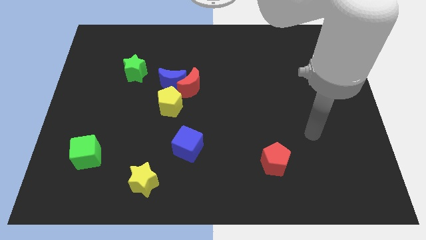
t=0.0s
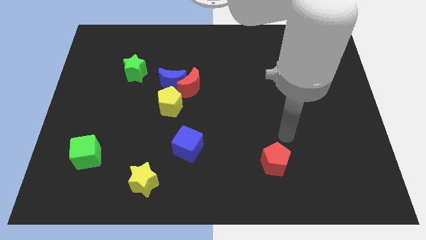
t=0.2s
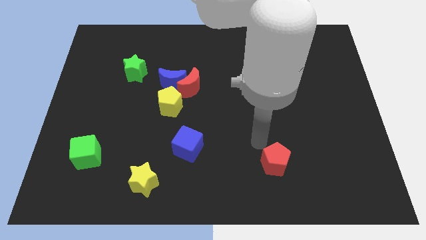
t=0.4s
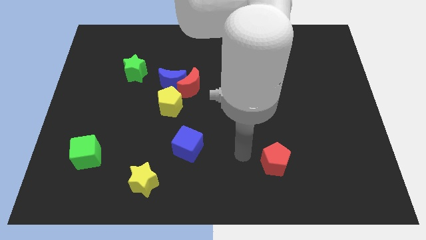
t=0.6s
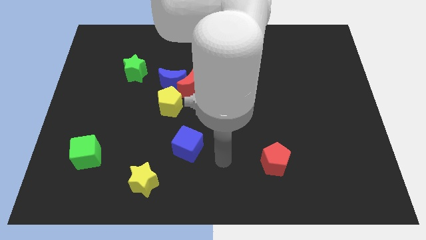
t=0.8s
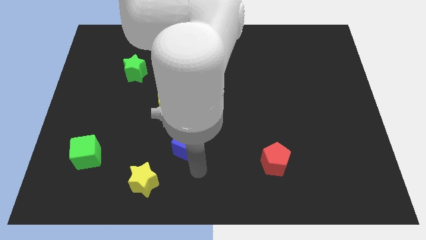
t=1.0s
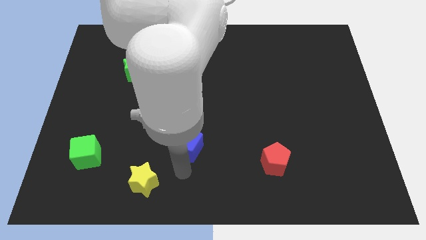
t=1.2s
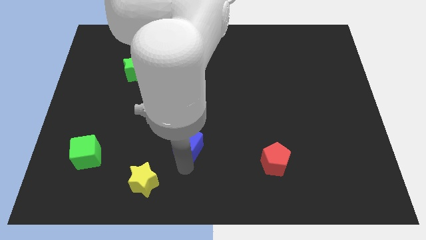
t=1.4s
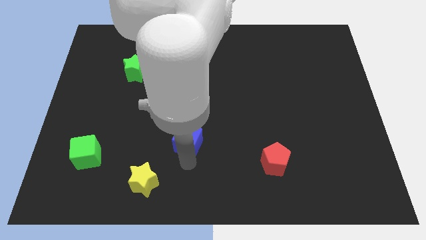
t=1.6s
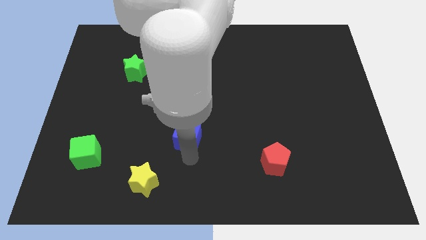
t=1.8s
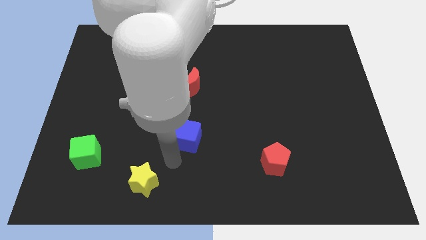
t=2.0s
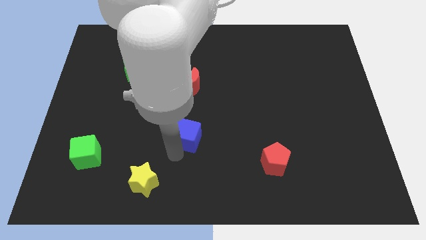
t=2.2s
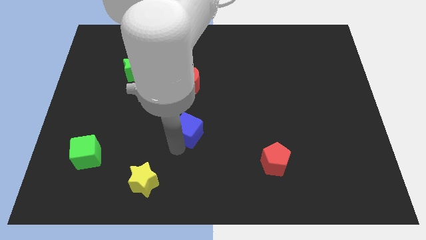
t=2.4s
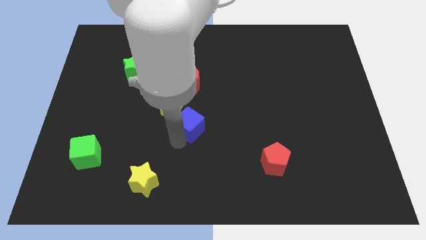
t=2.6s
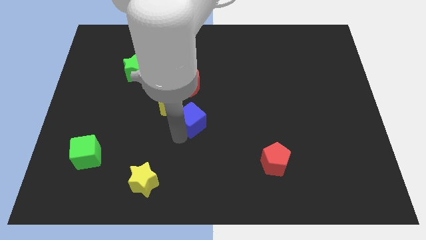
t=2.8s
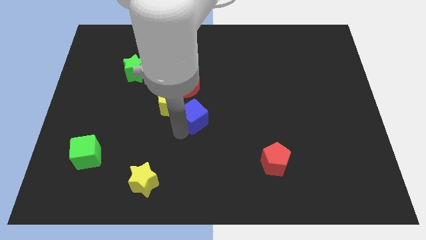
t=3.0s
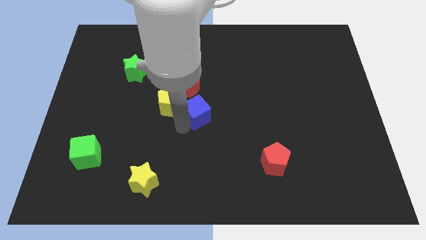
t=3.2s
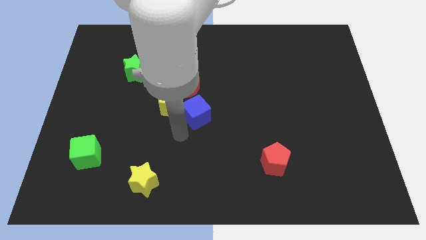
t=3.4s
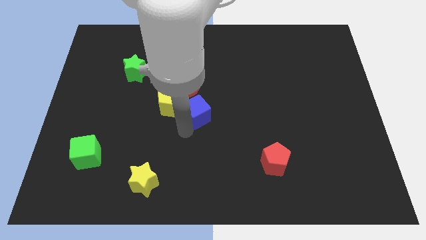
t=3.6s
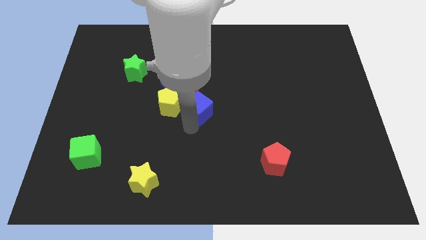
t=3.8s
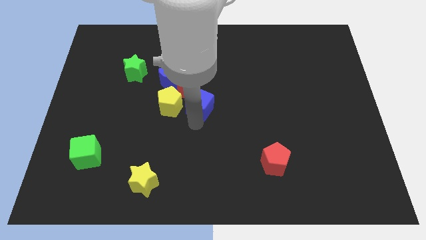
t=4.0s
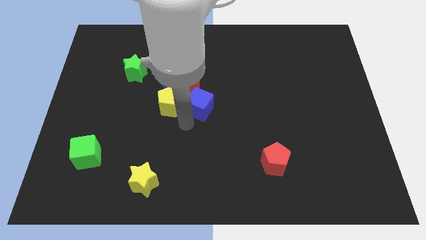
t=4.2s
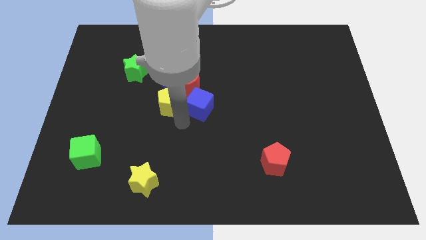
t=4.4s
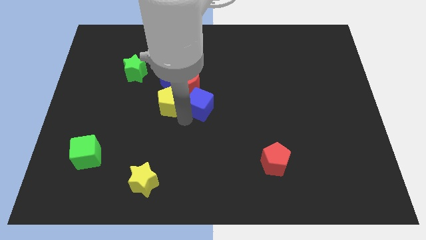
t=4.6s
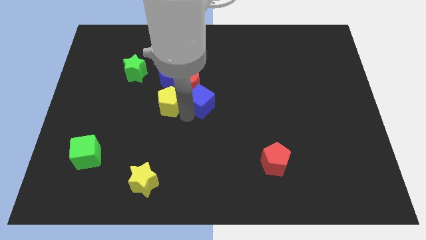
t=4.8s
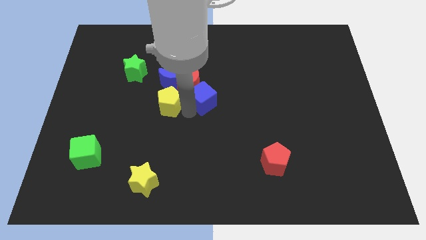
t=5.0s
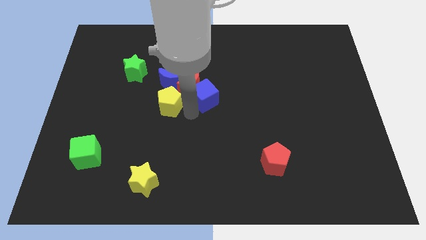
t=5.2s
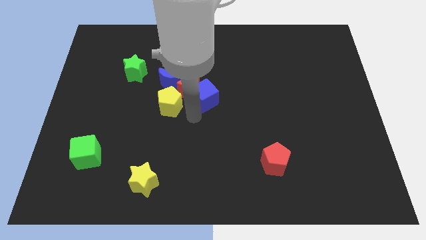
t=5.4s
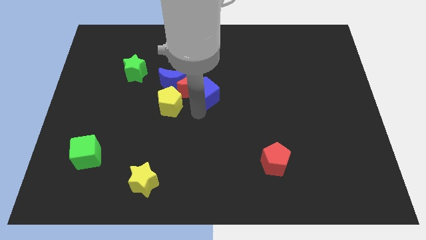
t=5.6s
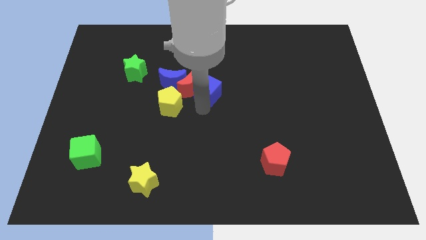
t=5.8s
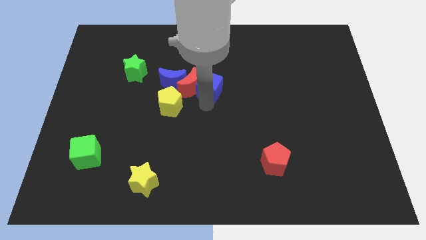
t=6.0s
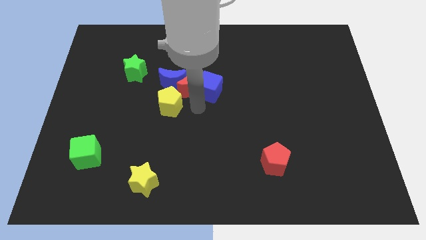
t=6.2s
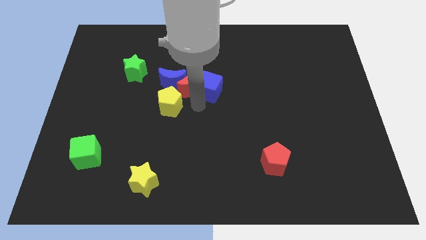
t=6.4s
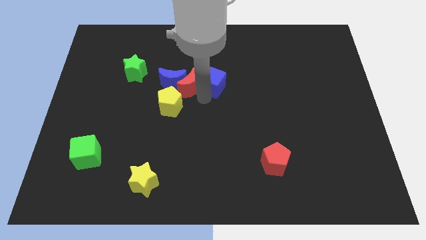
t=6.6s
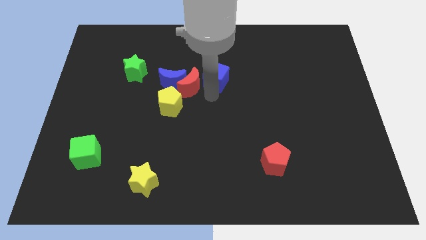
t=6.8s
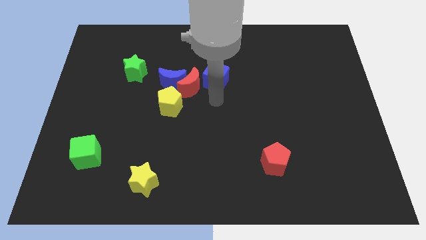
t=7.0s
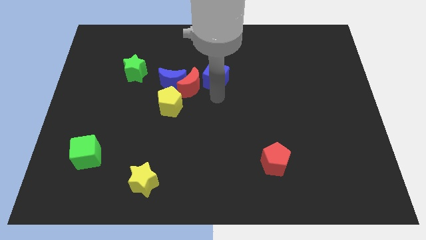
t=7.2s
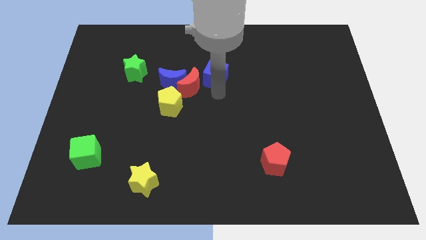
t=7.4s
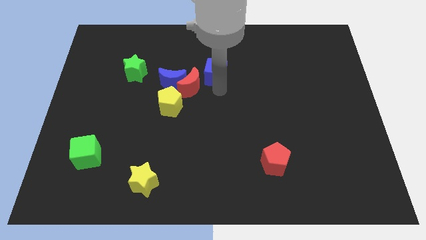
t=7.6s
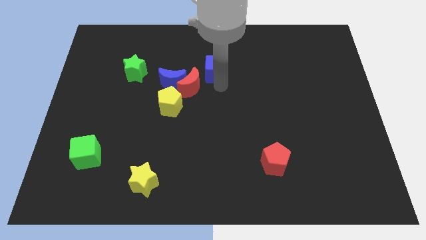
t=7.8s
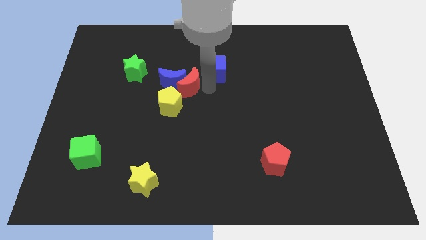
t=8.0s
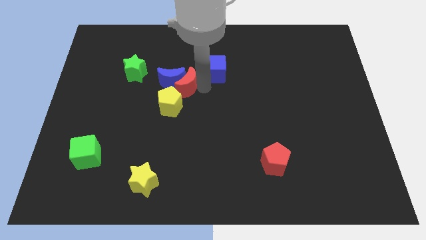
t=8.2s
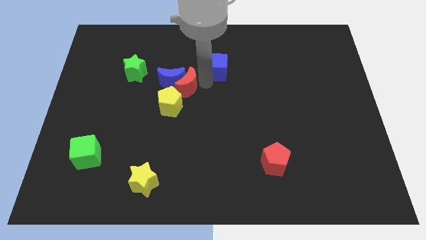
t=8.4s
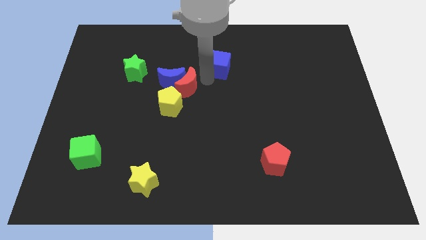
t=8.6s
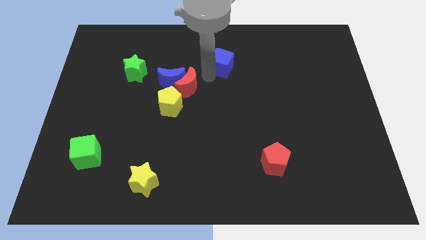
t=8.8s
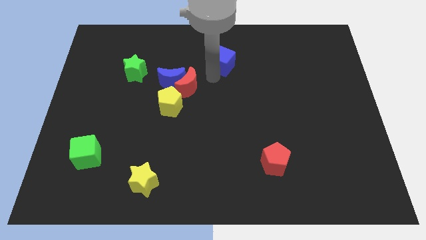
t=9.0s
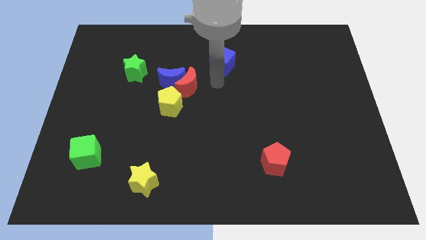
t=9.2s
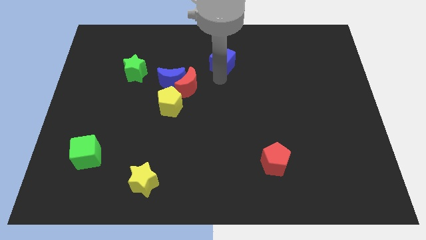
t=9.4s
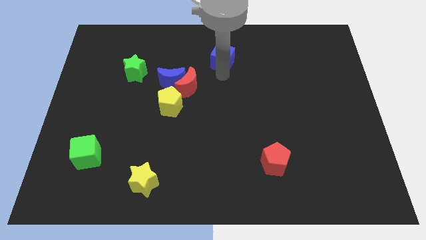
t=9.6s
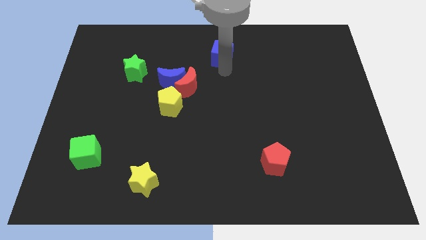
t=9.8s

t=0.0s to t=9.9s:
put the blue cube to the towards your base

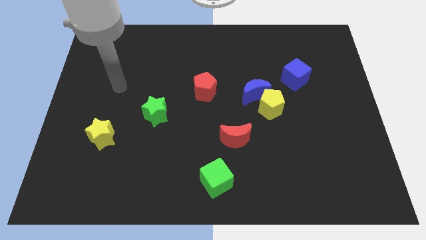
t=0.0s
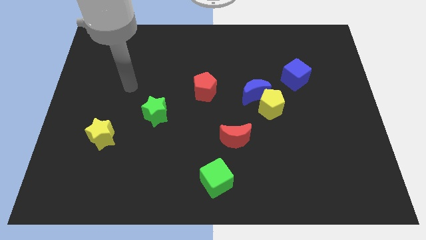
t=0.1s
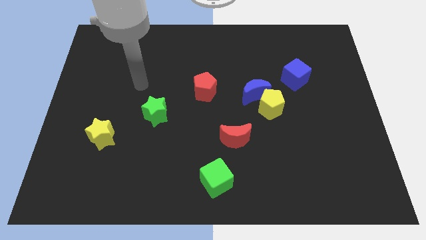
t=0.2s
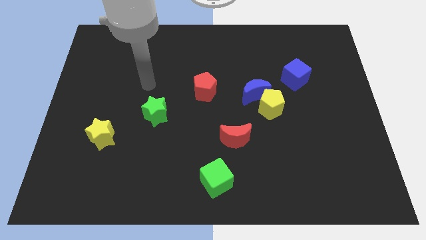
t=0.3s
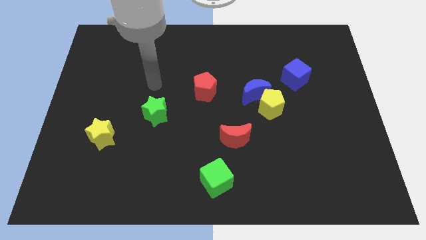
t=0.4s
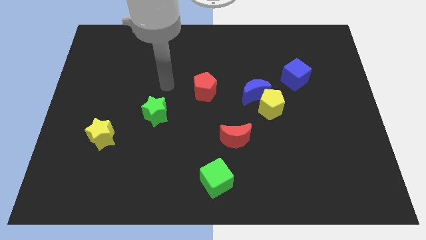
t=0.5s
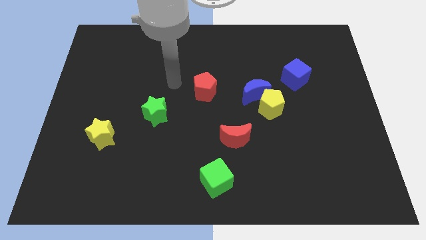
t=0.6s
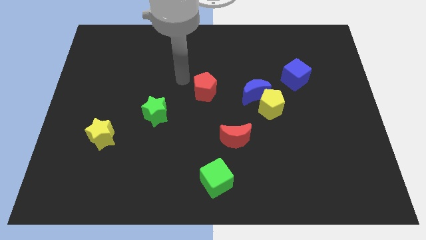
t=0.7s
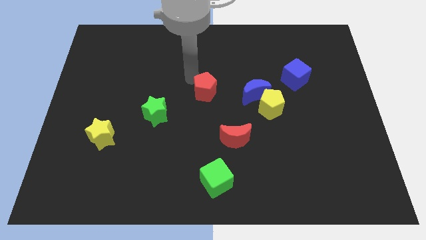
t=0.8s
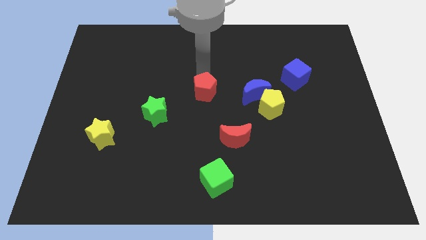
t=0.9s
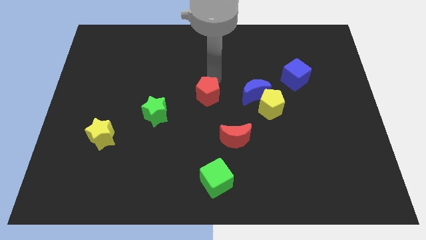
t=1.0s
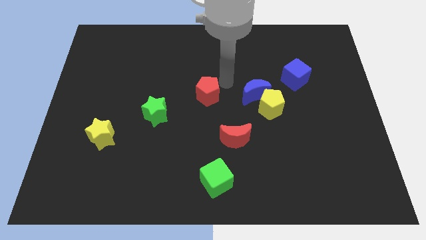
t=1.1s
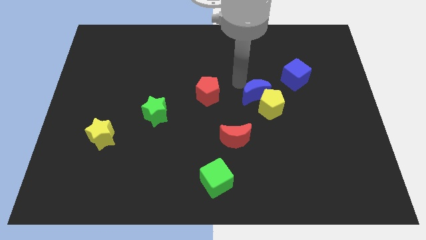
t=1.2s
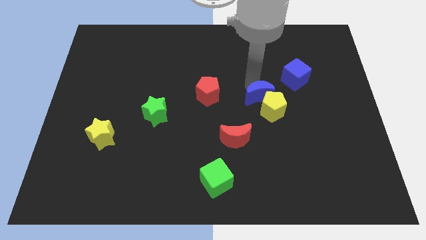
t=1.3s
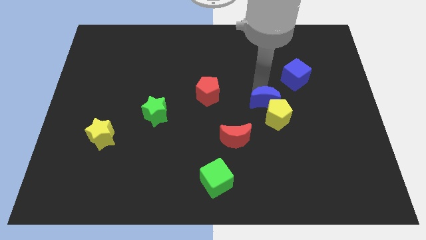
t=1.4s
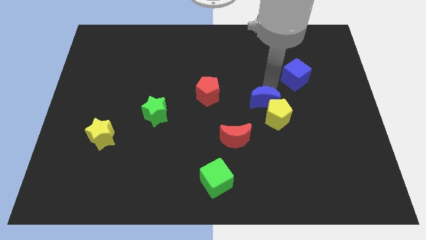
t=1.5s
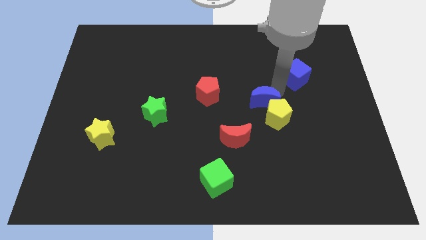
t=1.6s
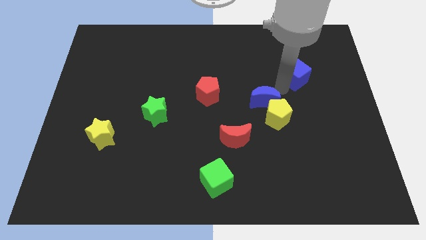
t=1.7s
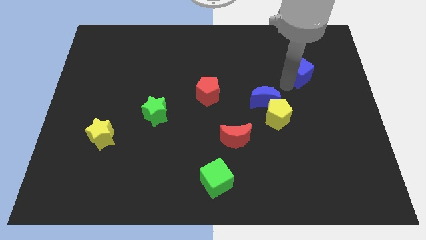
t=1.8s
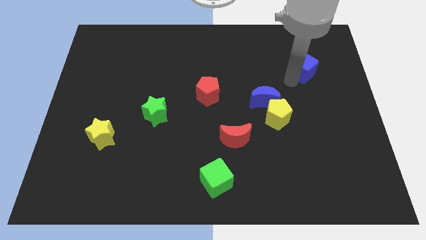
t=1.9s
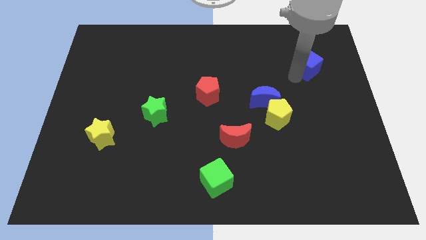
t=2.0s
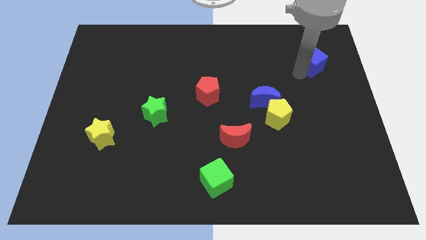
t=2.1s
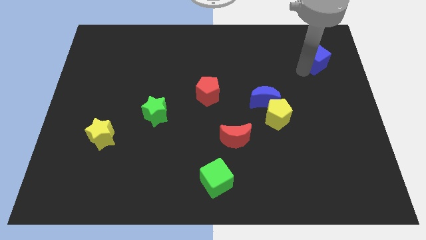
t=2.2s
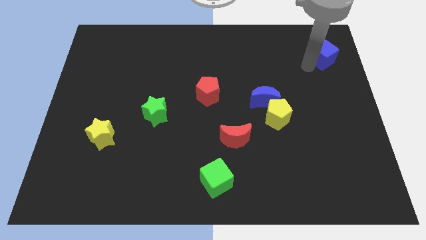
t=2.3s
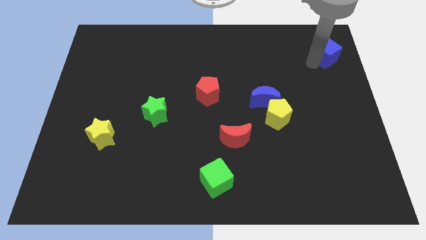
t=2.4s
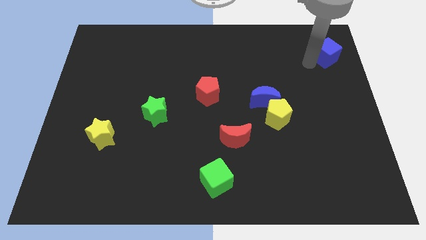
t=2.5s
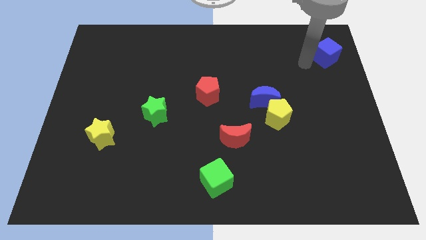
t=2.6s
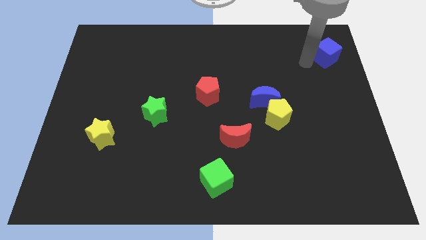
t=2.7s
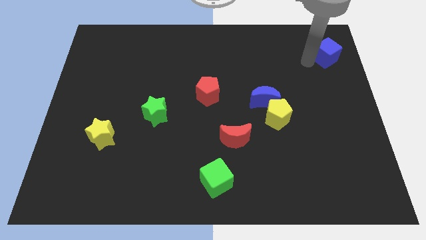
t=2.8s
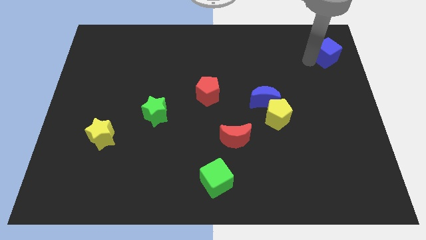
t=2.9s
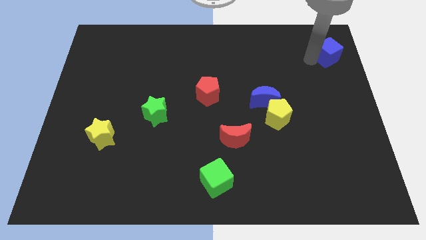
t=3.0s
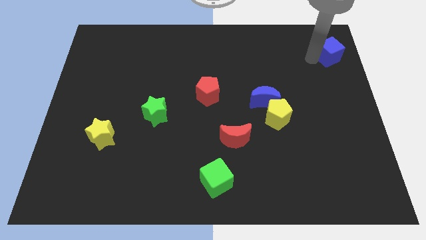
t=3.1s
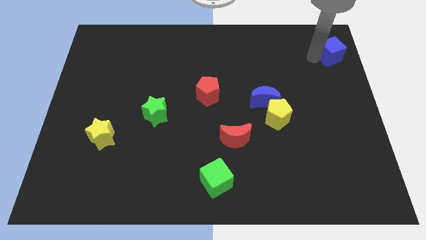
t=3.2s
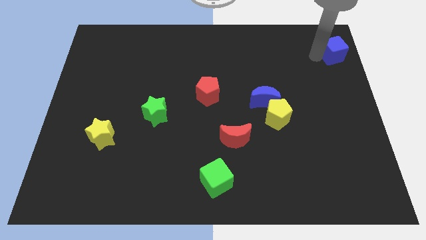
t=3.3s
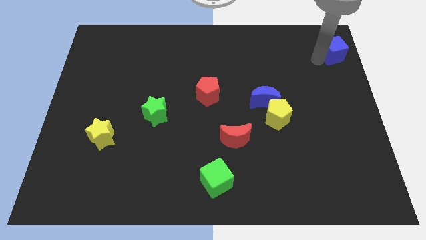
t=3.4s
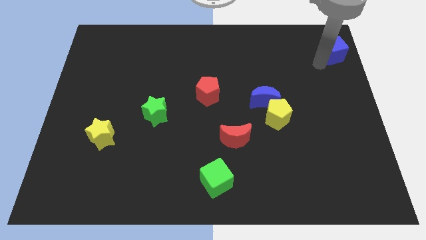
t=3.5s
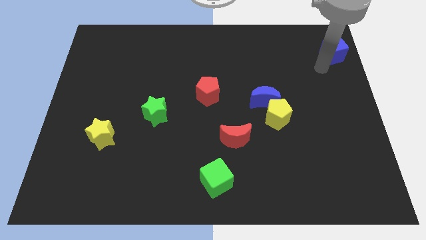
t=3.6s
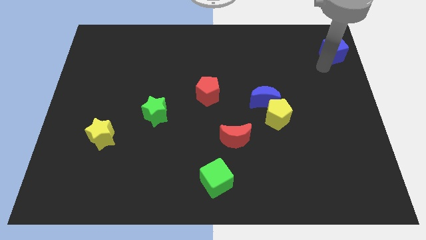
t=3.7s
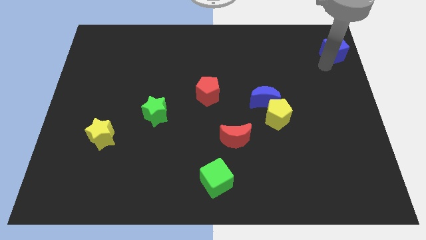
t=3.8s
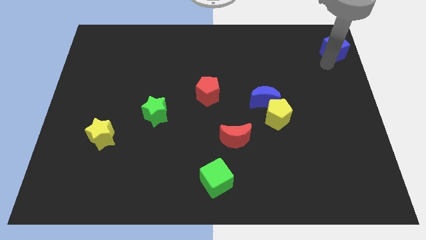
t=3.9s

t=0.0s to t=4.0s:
move the blue cube to the top right of the board
